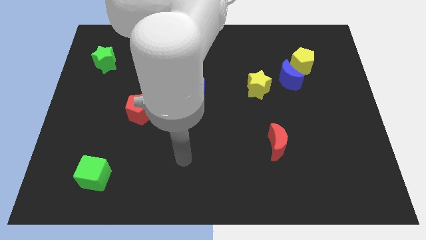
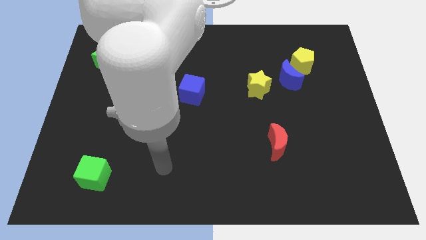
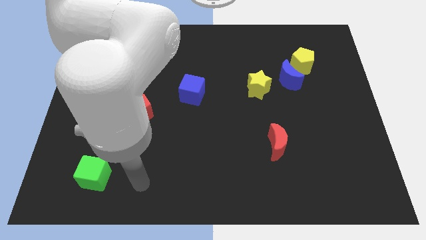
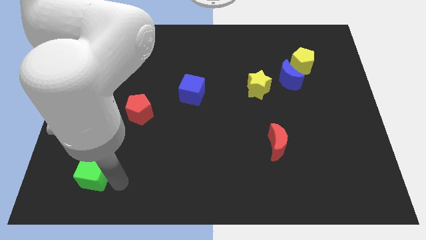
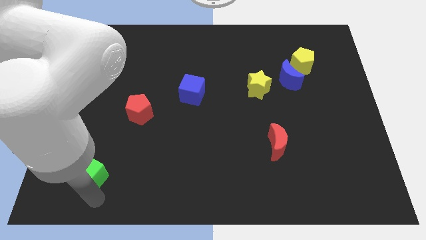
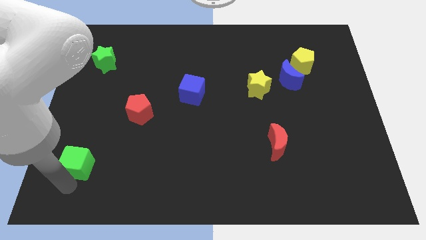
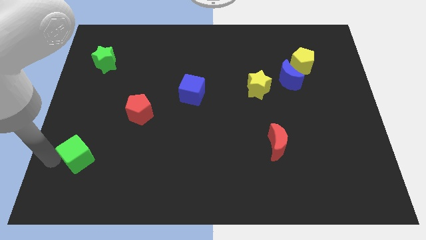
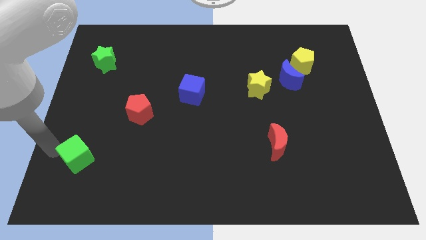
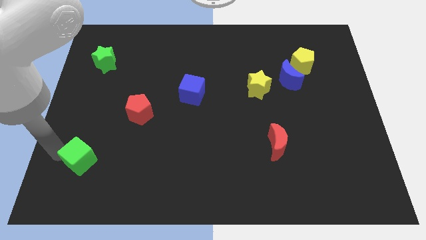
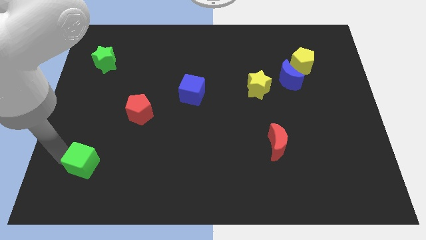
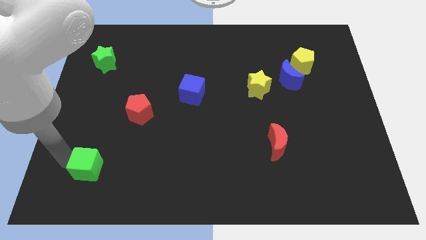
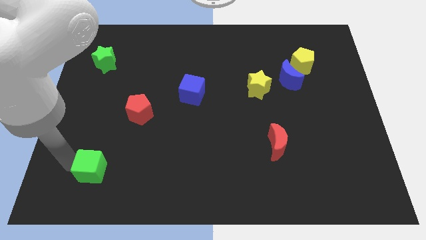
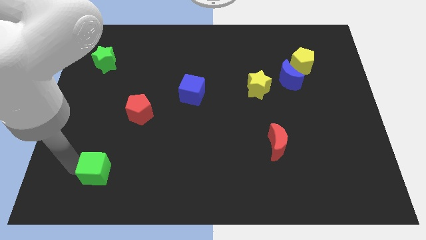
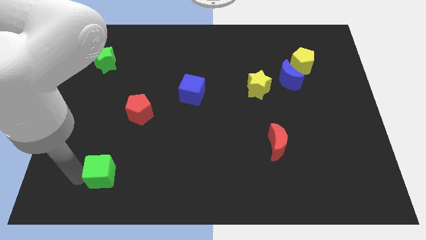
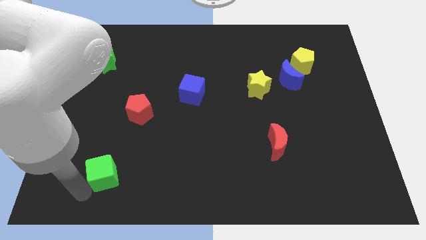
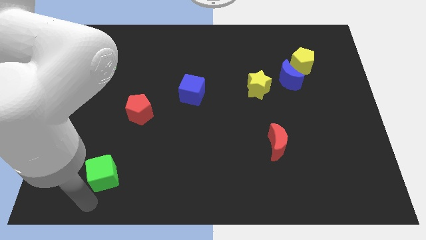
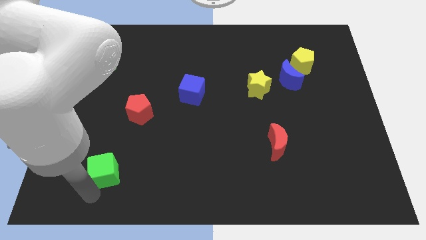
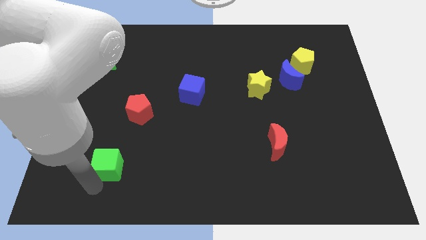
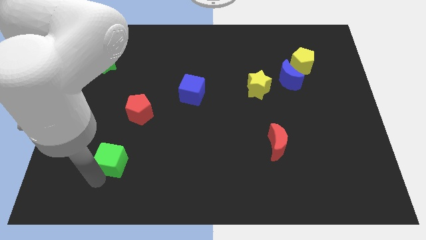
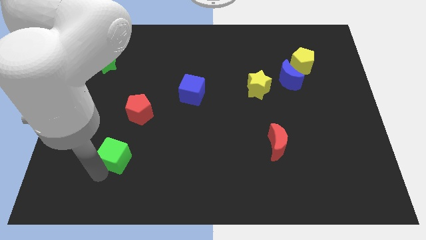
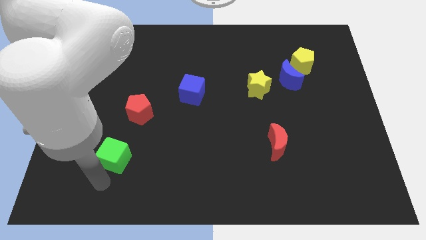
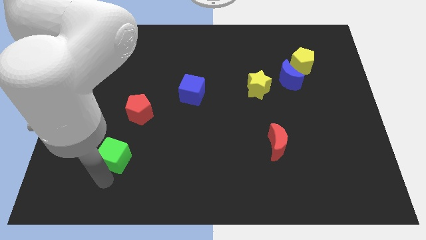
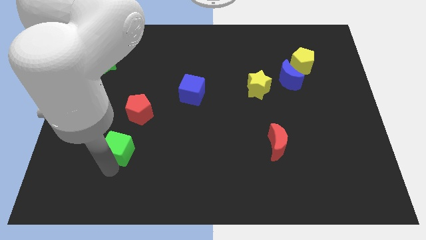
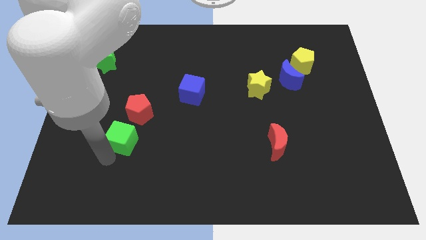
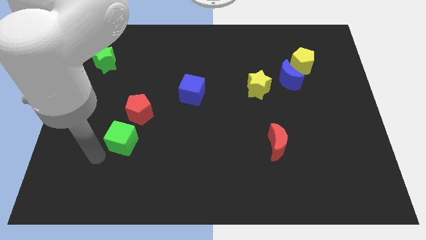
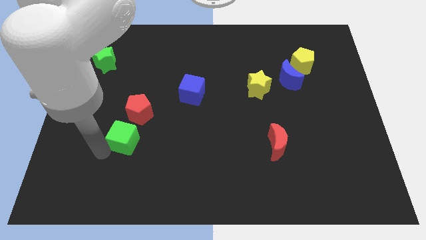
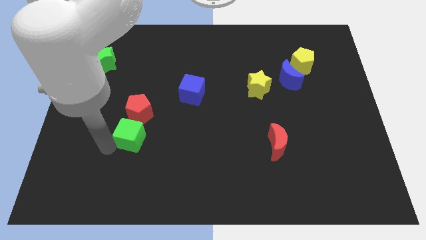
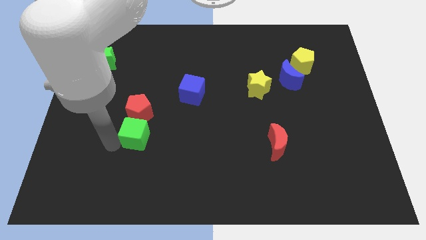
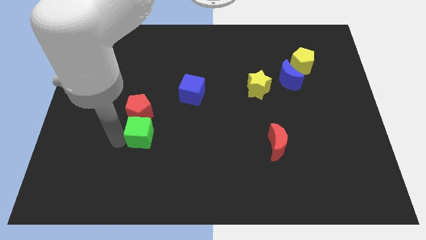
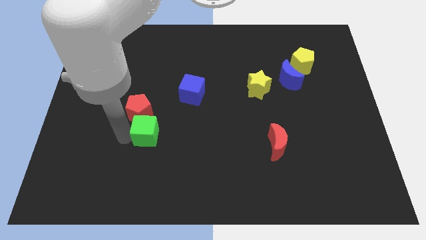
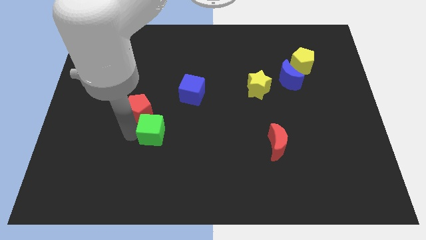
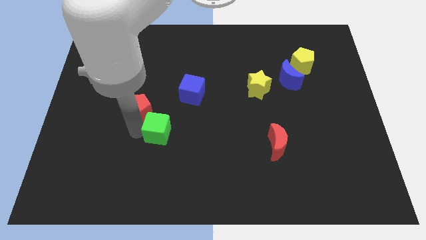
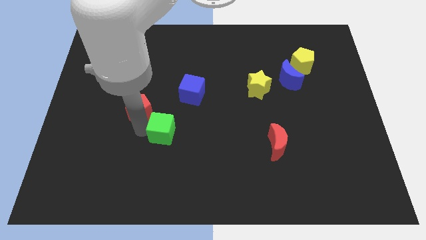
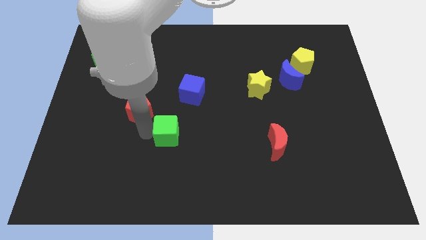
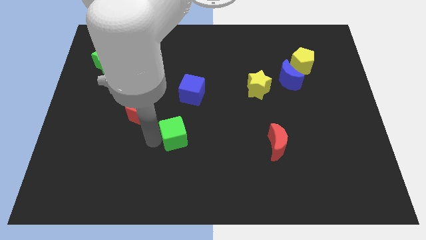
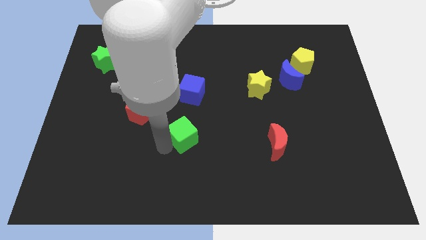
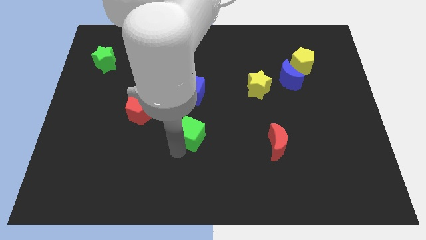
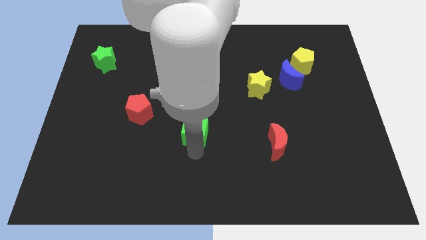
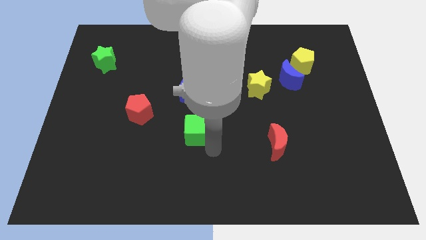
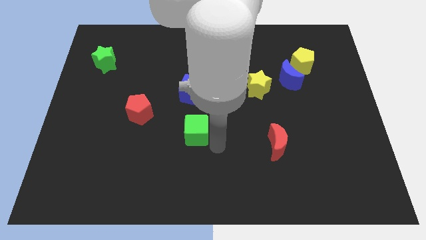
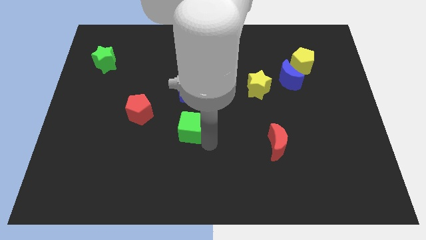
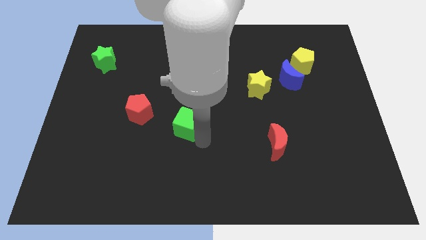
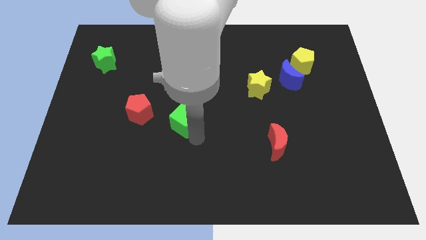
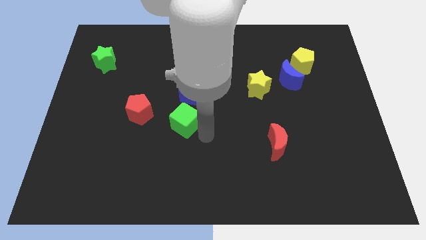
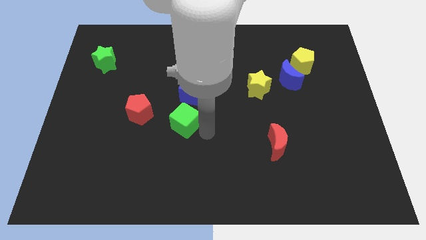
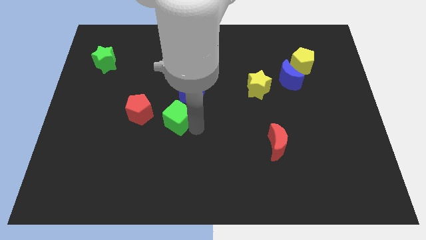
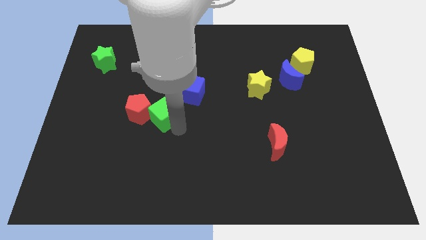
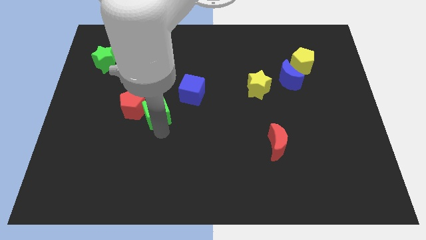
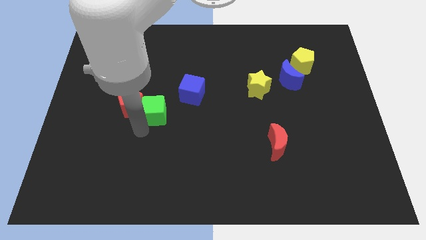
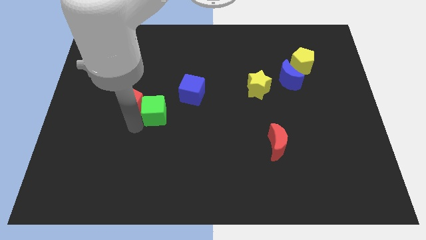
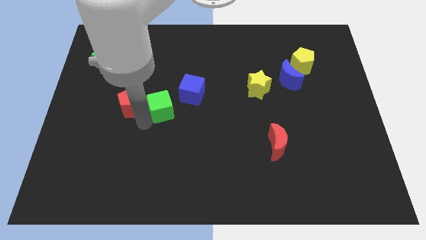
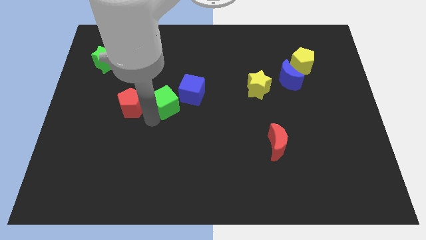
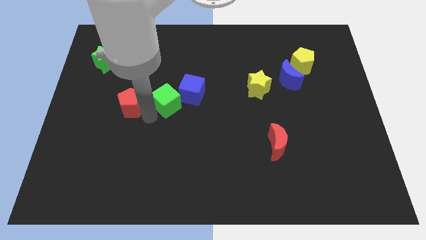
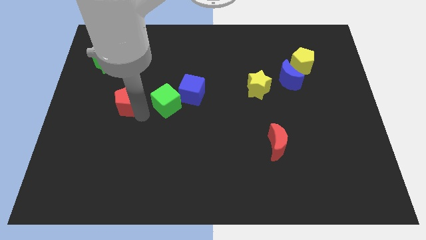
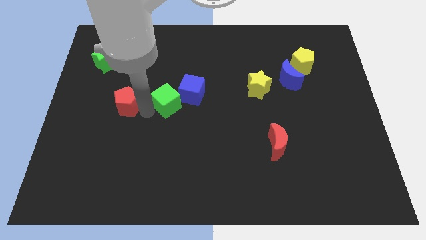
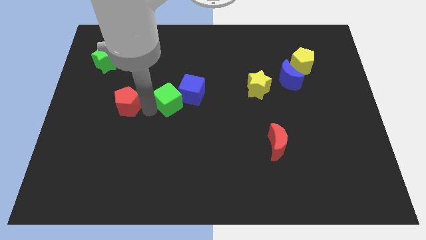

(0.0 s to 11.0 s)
slide the green cube towards the blue cube
